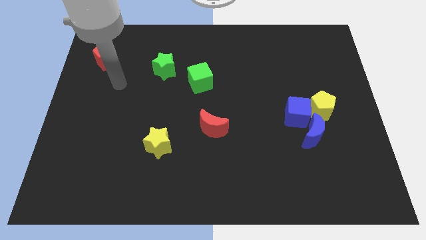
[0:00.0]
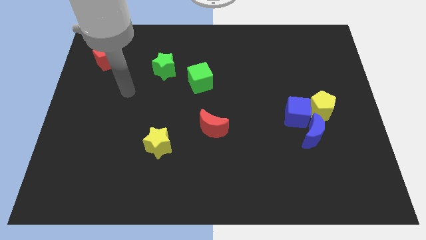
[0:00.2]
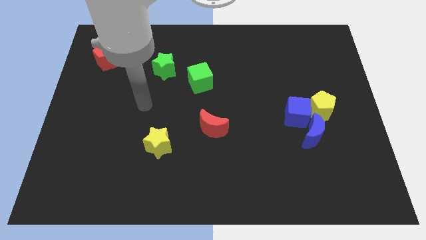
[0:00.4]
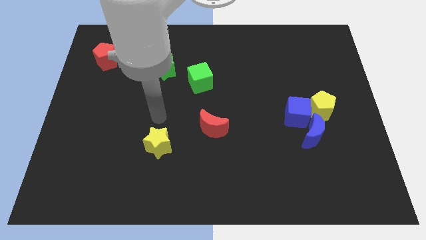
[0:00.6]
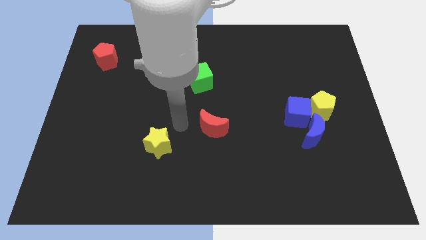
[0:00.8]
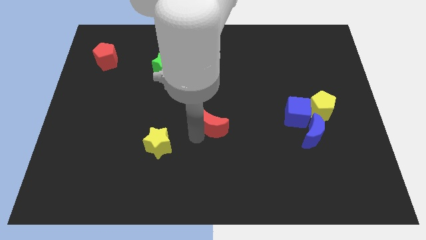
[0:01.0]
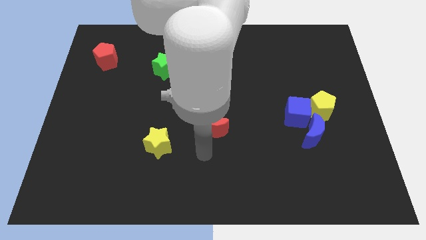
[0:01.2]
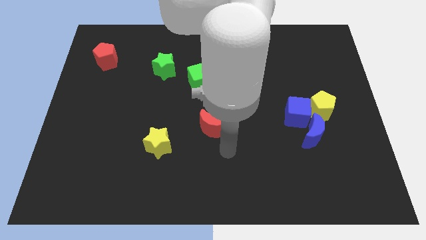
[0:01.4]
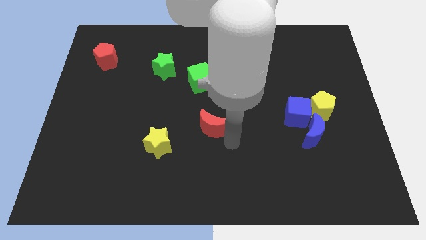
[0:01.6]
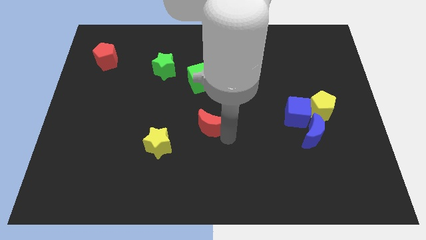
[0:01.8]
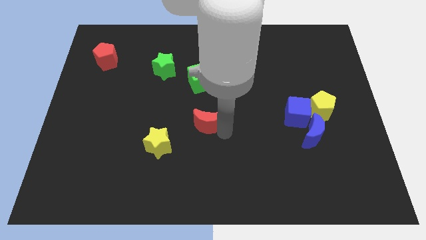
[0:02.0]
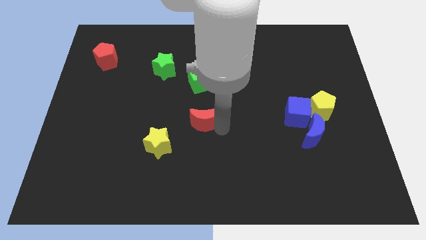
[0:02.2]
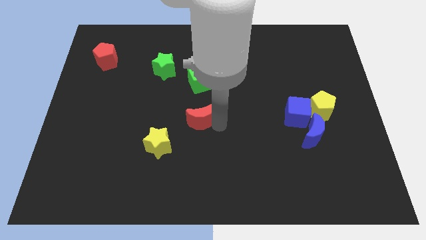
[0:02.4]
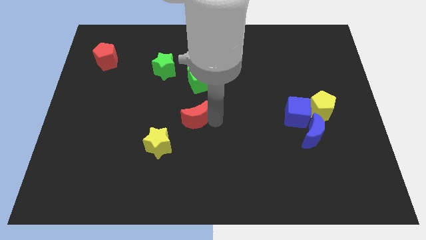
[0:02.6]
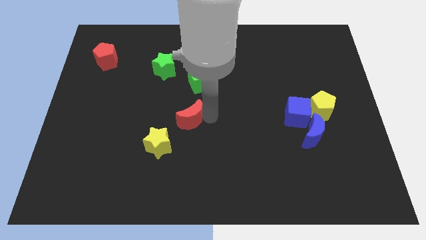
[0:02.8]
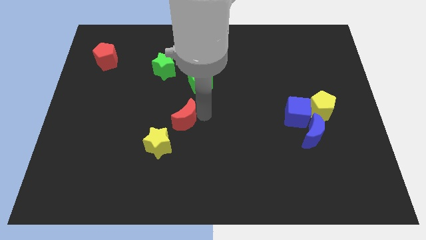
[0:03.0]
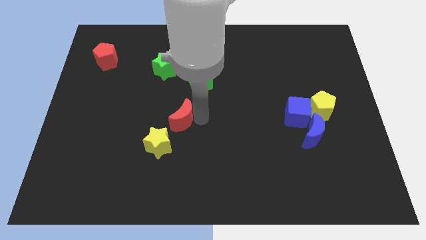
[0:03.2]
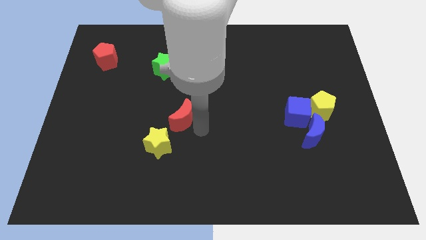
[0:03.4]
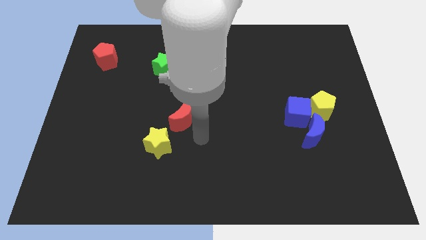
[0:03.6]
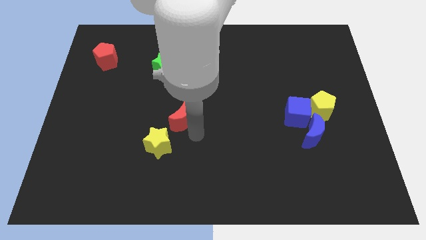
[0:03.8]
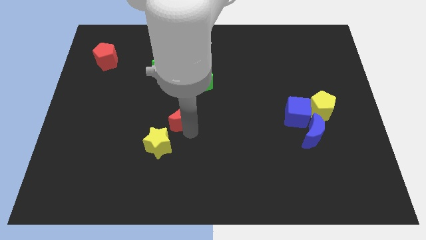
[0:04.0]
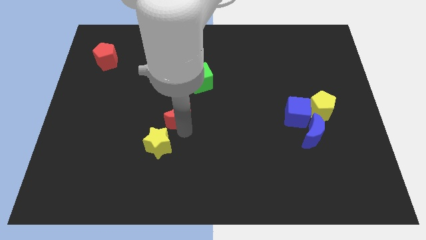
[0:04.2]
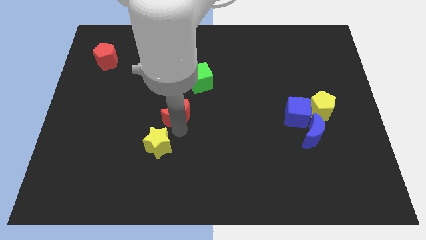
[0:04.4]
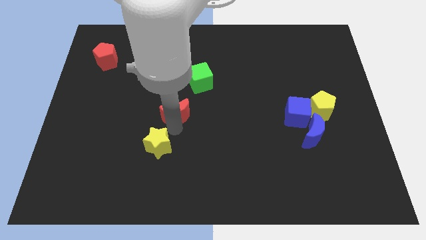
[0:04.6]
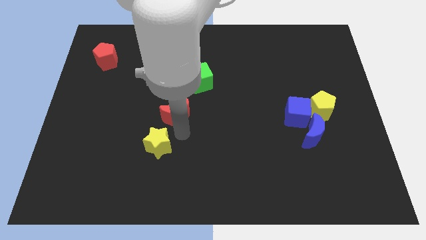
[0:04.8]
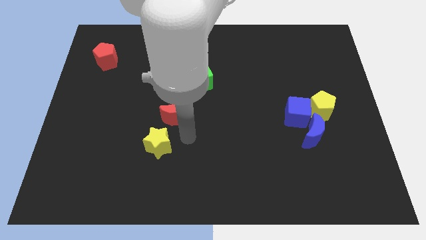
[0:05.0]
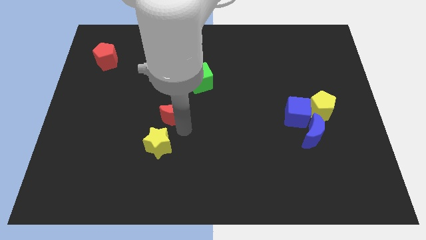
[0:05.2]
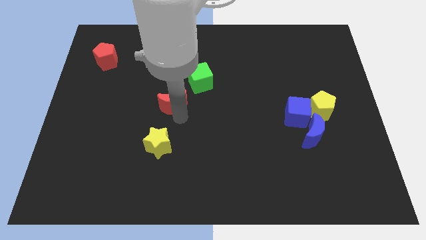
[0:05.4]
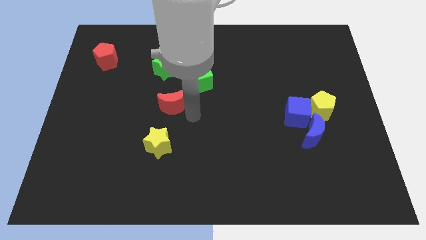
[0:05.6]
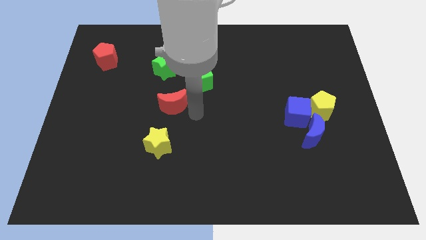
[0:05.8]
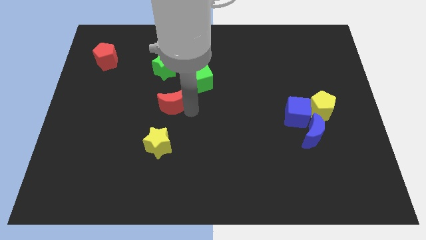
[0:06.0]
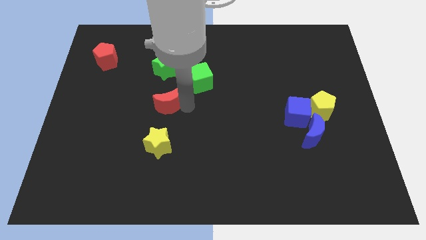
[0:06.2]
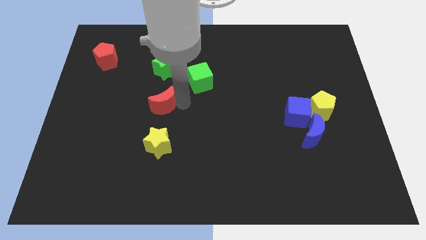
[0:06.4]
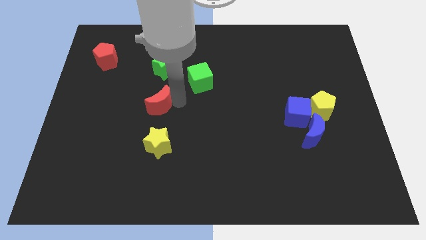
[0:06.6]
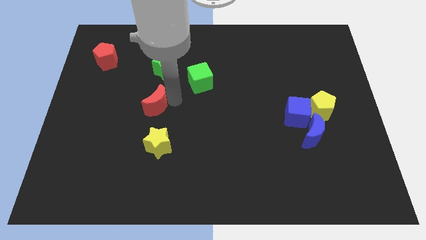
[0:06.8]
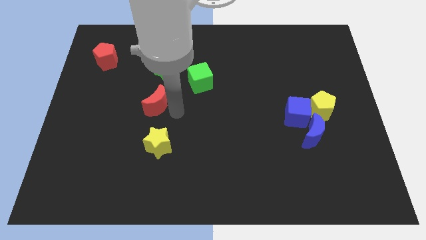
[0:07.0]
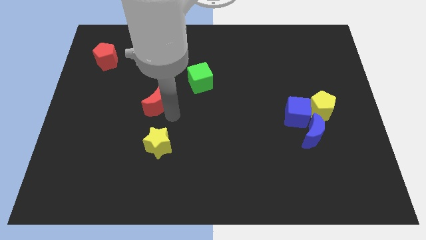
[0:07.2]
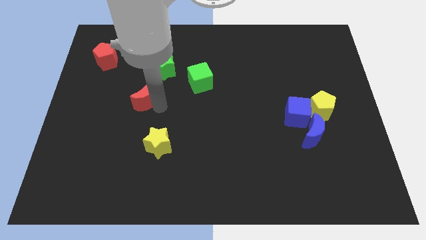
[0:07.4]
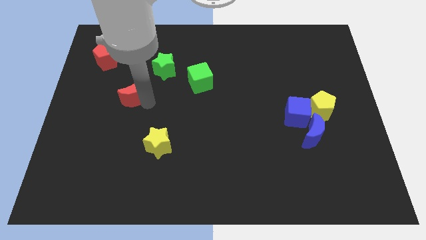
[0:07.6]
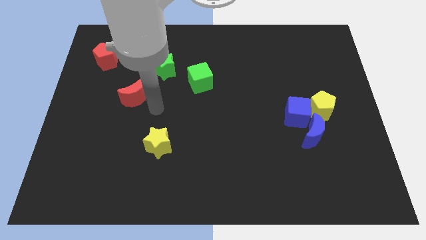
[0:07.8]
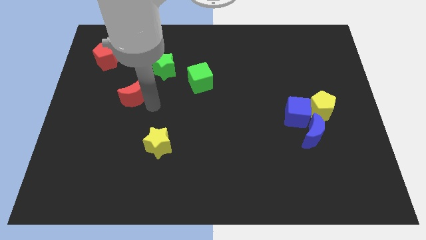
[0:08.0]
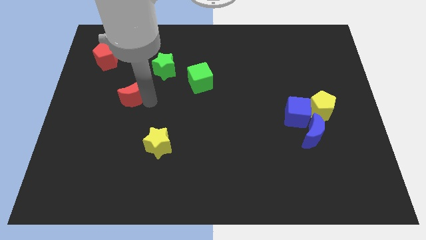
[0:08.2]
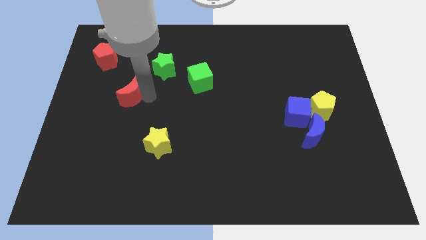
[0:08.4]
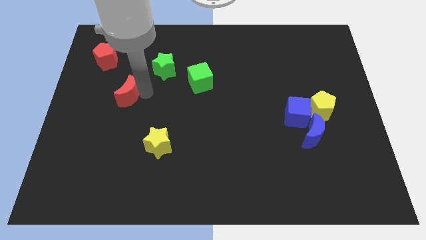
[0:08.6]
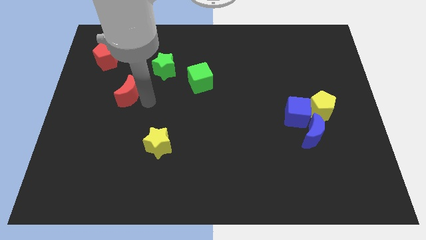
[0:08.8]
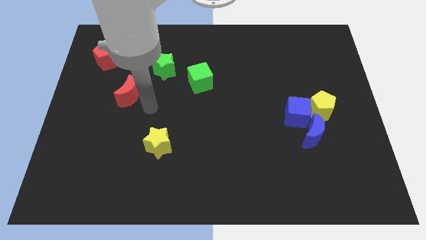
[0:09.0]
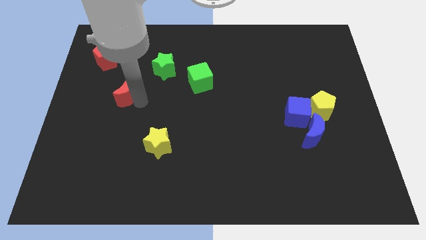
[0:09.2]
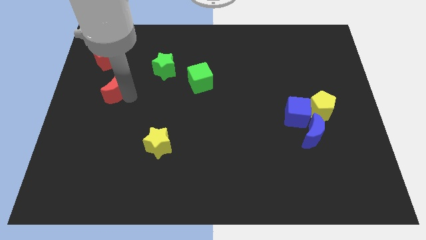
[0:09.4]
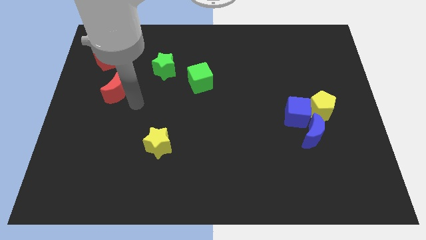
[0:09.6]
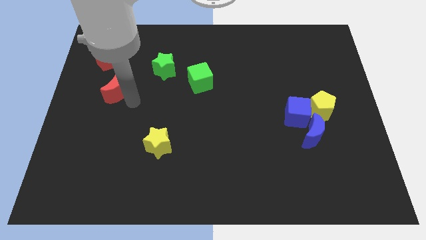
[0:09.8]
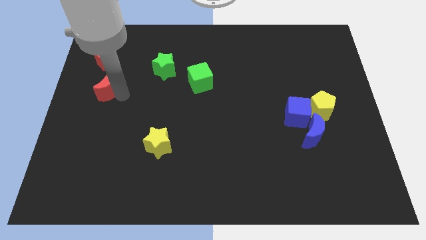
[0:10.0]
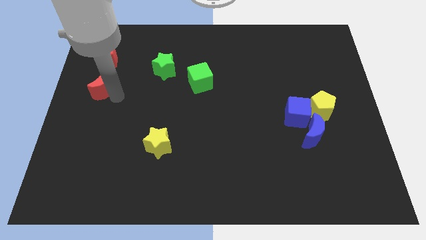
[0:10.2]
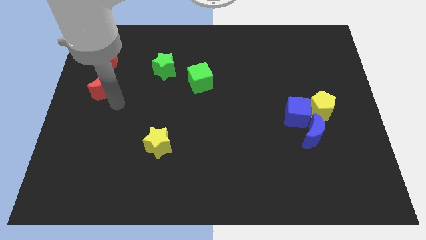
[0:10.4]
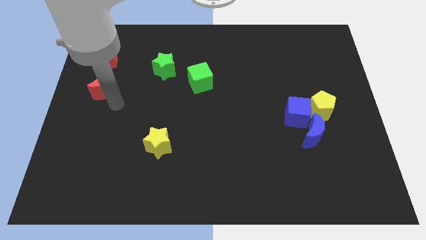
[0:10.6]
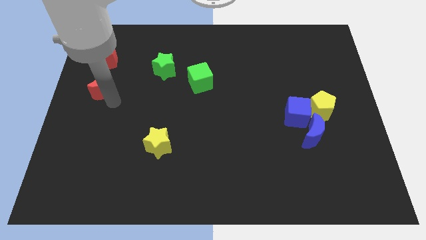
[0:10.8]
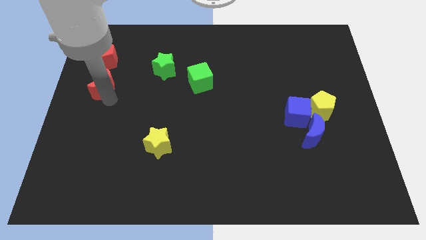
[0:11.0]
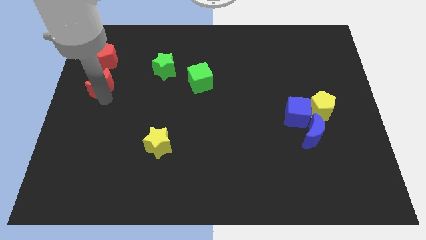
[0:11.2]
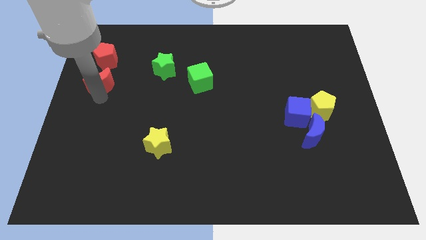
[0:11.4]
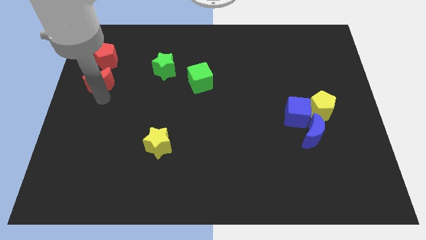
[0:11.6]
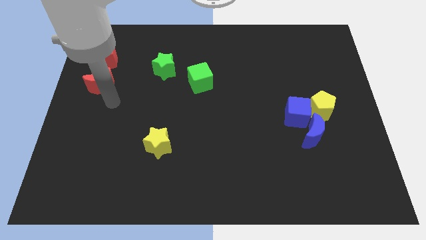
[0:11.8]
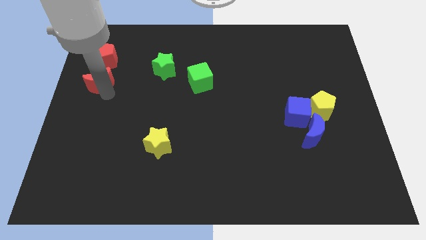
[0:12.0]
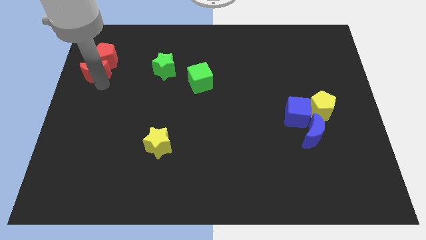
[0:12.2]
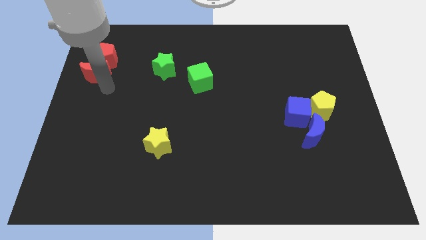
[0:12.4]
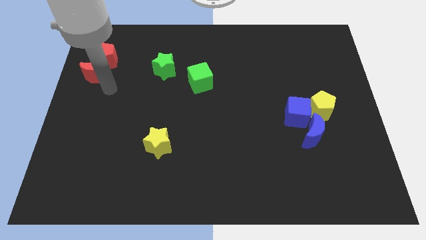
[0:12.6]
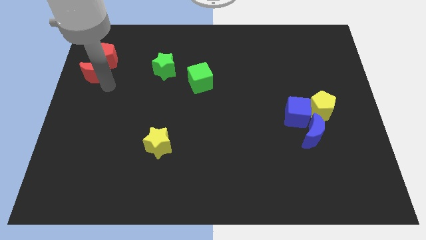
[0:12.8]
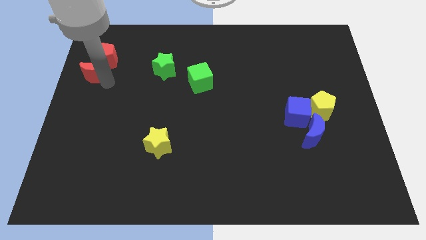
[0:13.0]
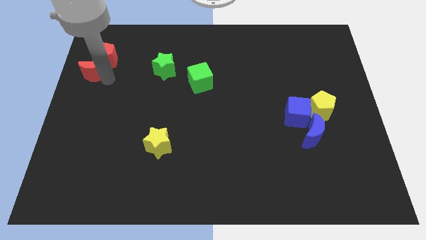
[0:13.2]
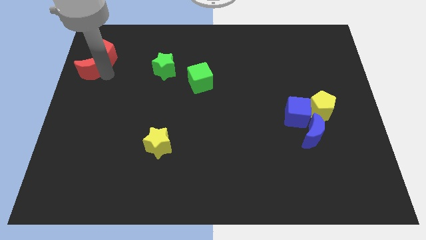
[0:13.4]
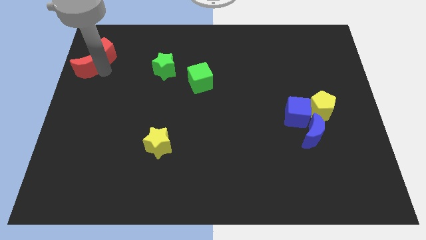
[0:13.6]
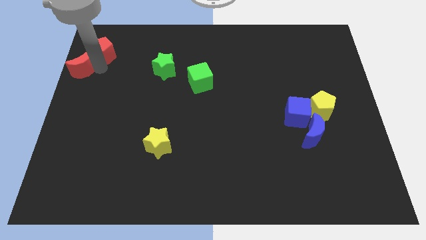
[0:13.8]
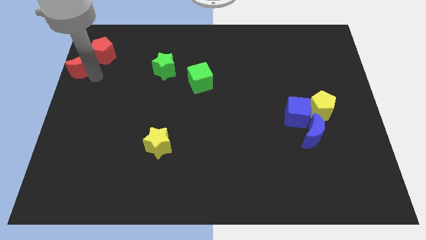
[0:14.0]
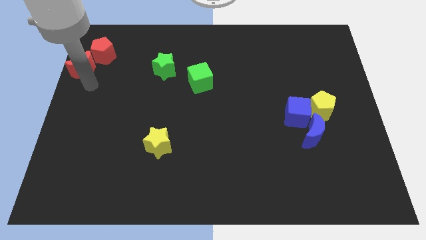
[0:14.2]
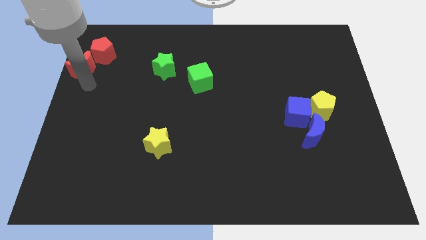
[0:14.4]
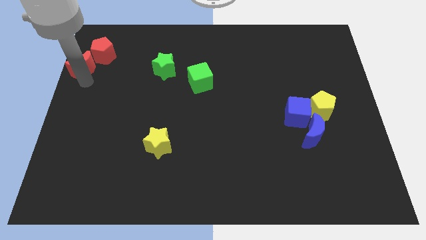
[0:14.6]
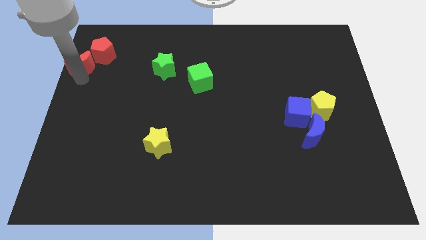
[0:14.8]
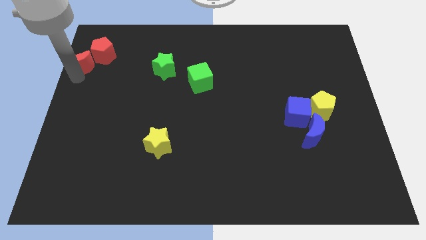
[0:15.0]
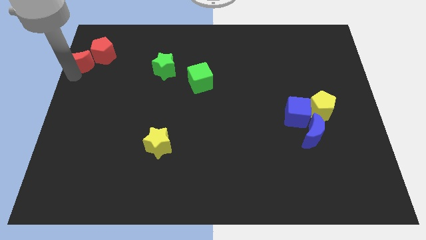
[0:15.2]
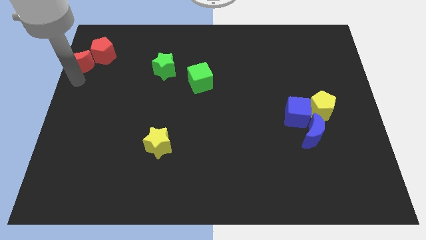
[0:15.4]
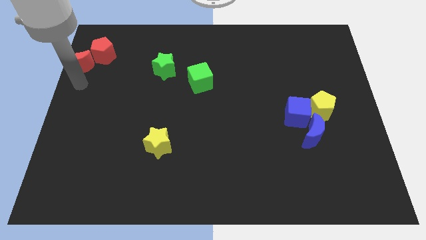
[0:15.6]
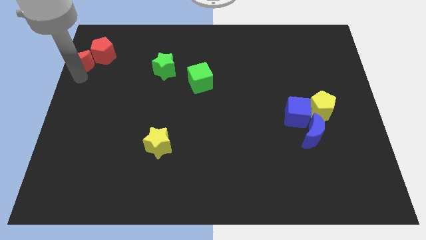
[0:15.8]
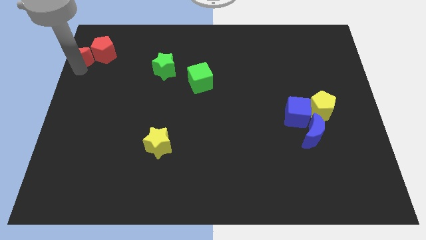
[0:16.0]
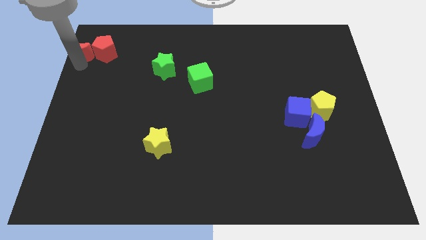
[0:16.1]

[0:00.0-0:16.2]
push the red moon to the upper left corner
